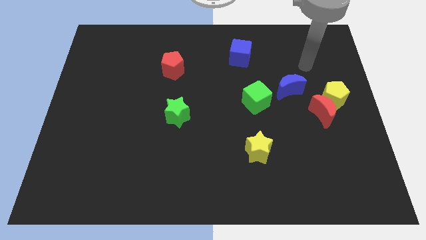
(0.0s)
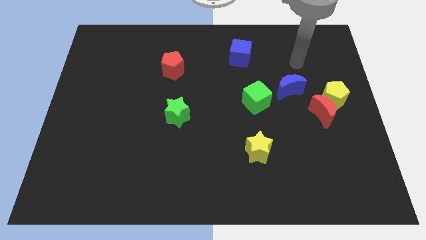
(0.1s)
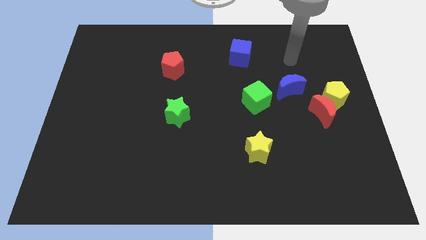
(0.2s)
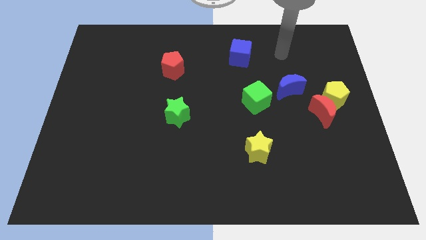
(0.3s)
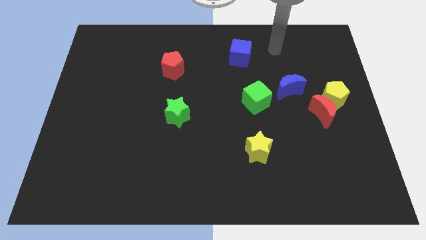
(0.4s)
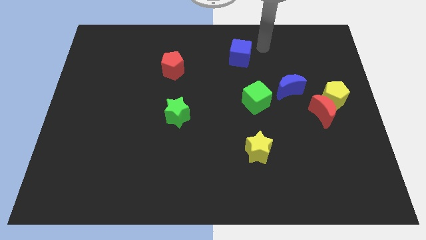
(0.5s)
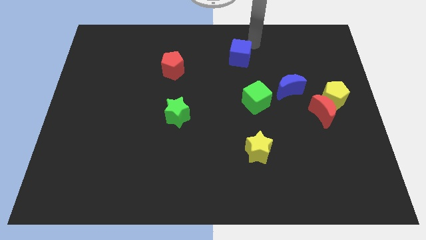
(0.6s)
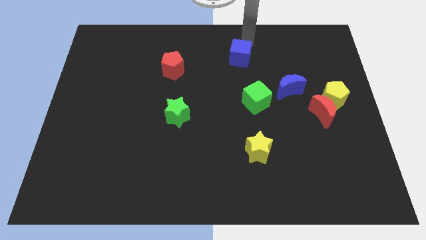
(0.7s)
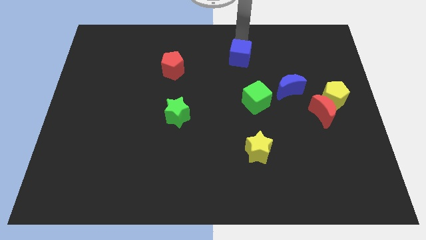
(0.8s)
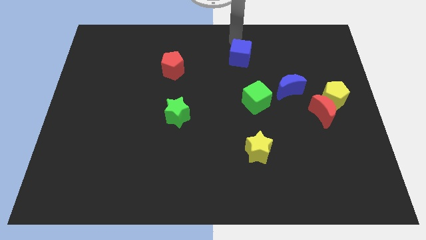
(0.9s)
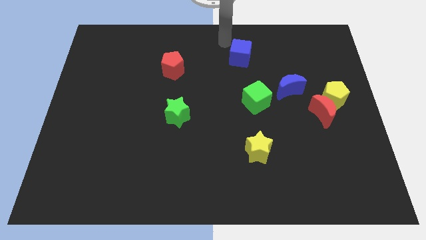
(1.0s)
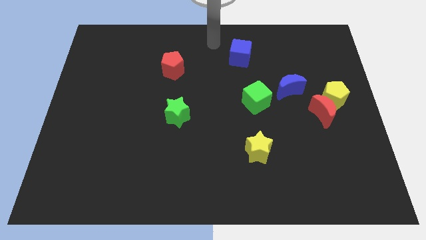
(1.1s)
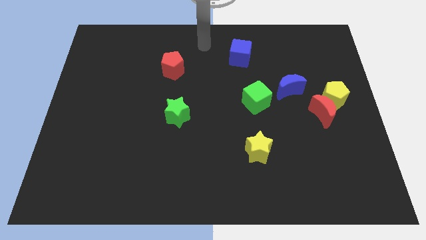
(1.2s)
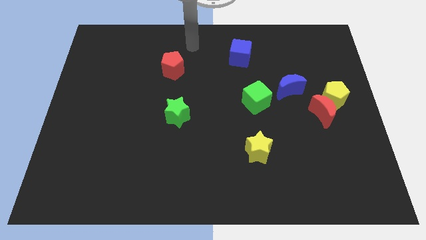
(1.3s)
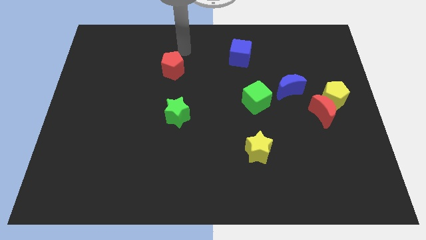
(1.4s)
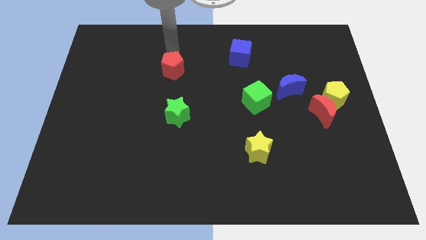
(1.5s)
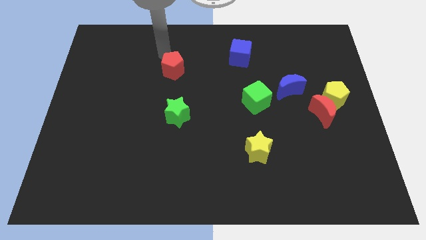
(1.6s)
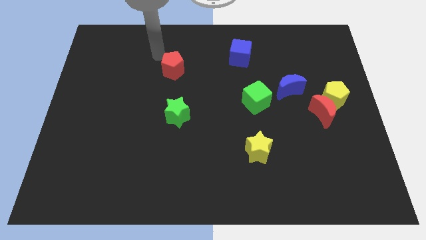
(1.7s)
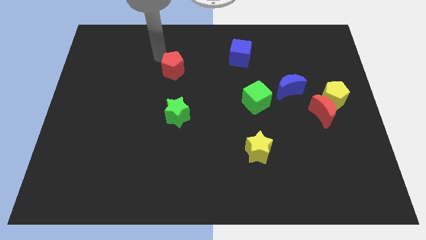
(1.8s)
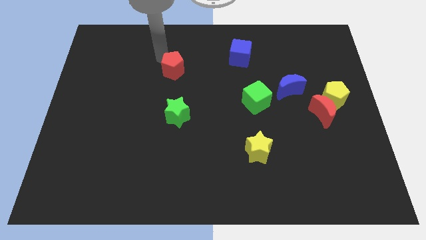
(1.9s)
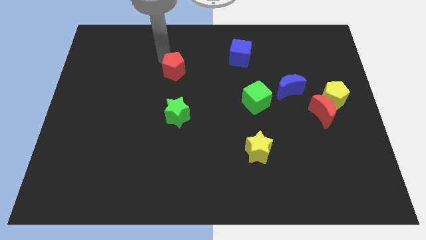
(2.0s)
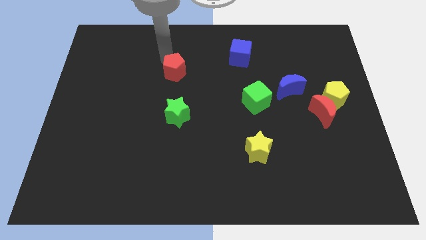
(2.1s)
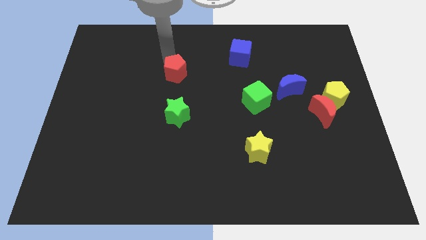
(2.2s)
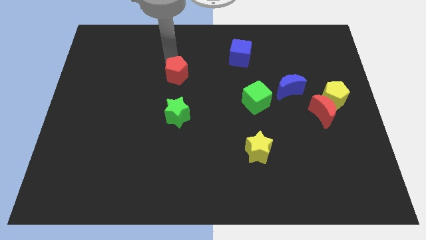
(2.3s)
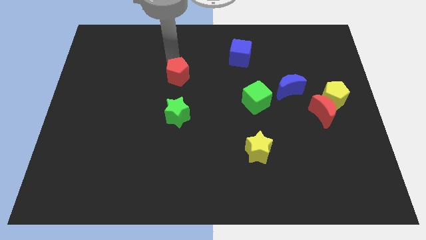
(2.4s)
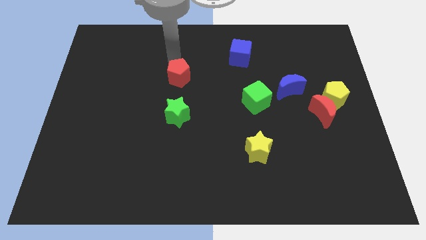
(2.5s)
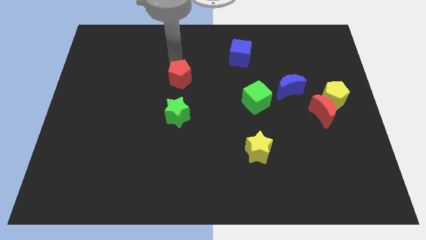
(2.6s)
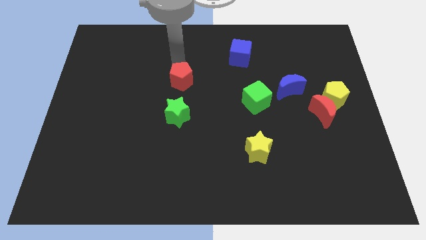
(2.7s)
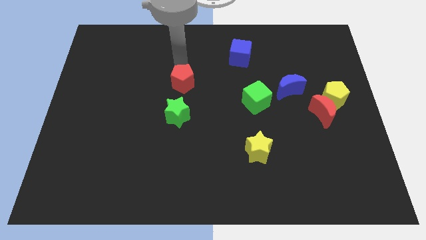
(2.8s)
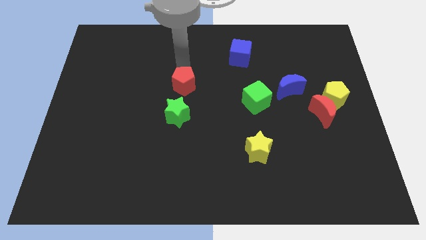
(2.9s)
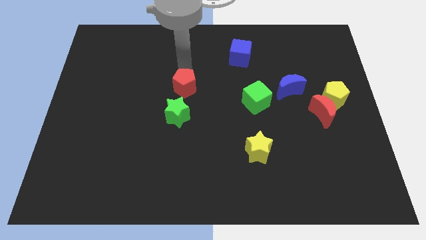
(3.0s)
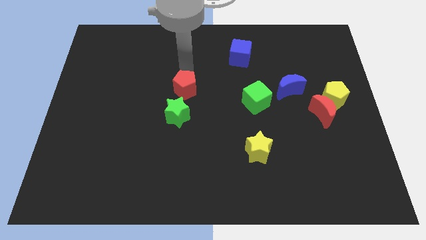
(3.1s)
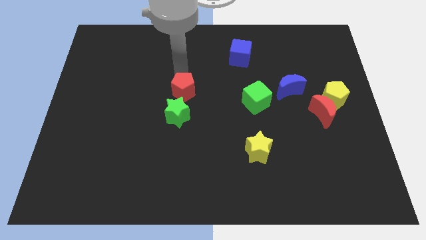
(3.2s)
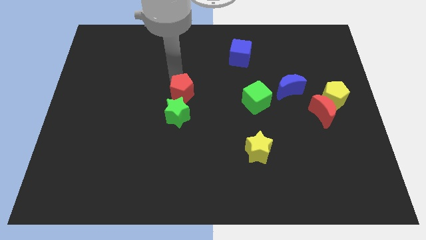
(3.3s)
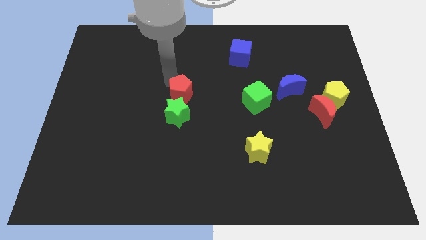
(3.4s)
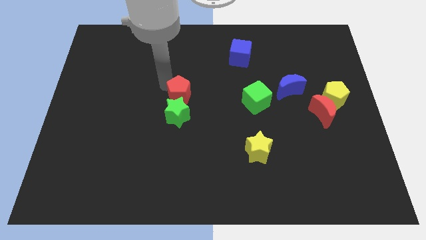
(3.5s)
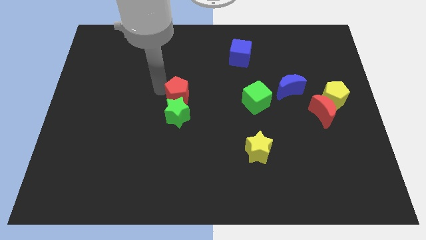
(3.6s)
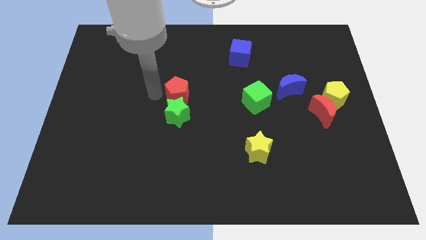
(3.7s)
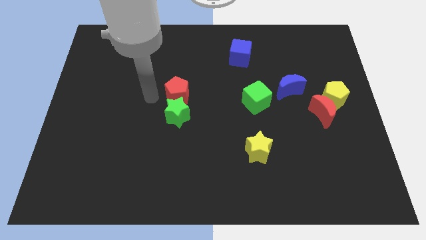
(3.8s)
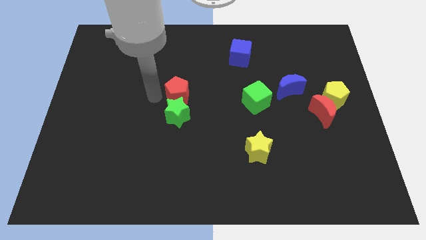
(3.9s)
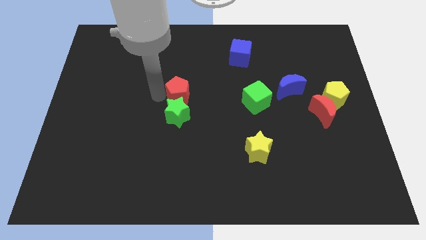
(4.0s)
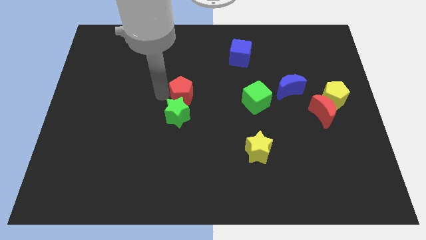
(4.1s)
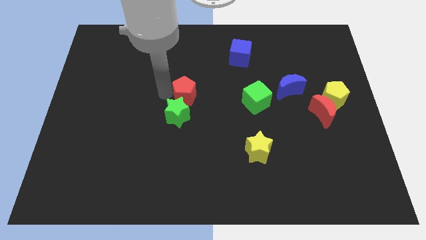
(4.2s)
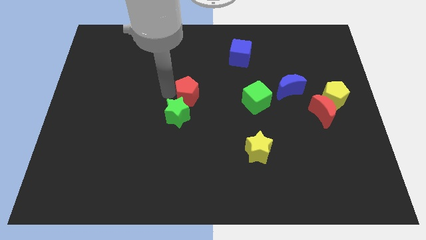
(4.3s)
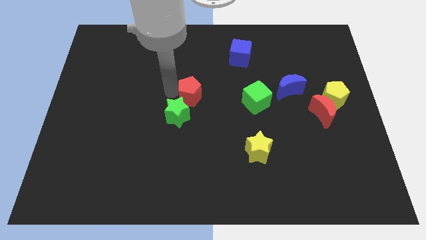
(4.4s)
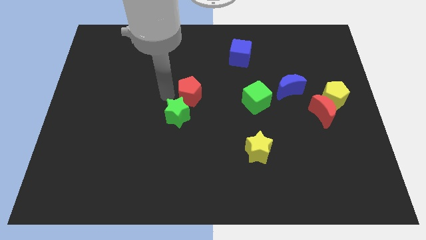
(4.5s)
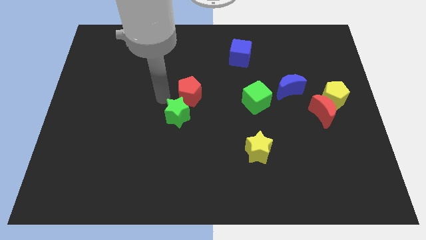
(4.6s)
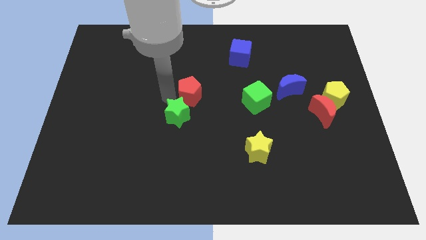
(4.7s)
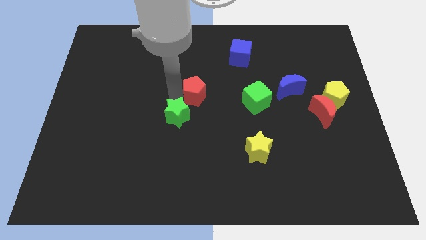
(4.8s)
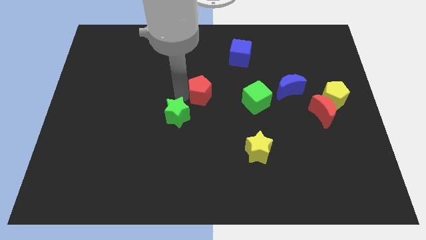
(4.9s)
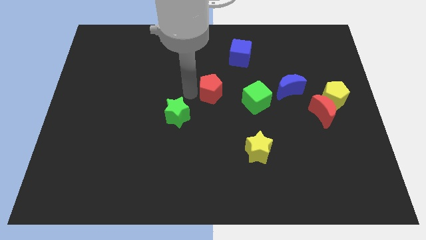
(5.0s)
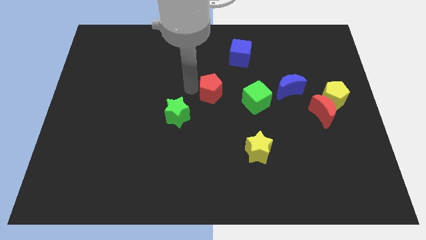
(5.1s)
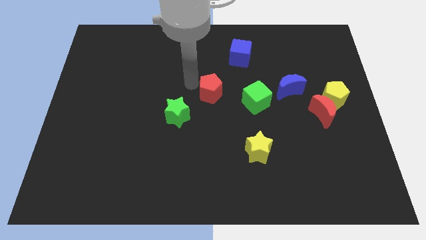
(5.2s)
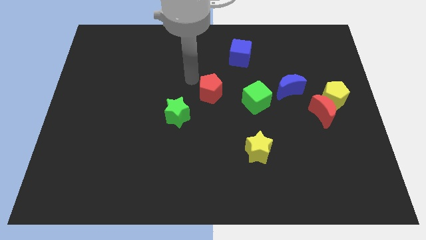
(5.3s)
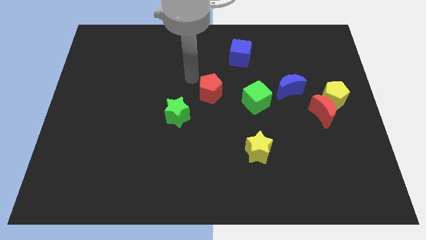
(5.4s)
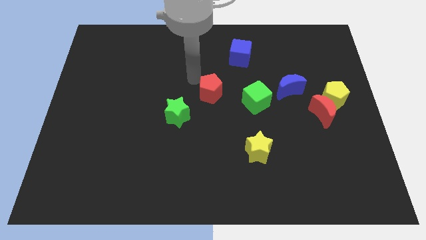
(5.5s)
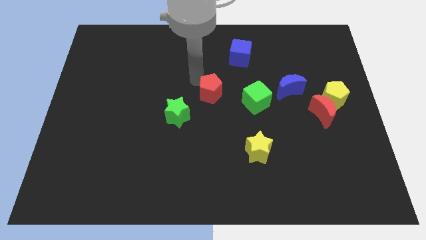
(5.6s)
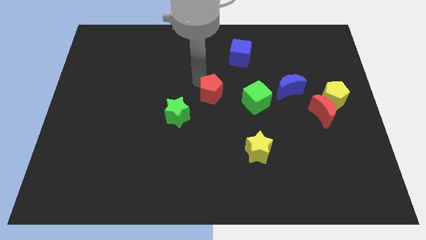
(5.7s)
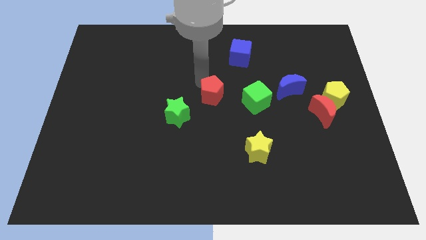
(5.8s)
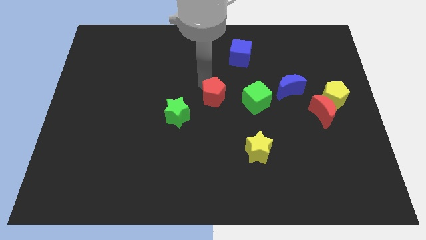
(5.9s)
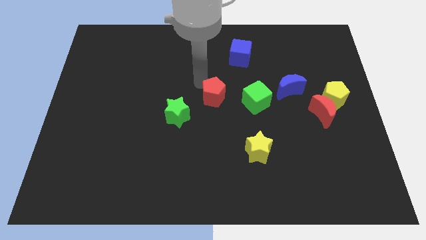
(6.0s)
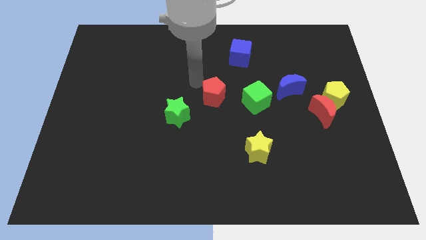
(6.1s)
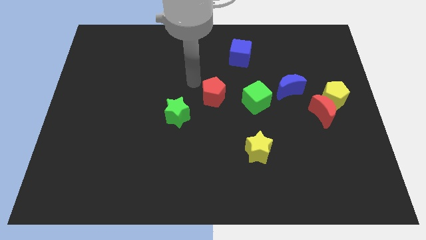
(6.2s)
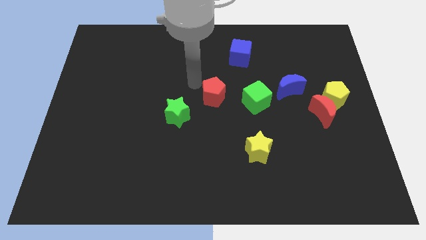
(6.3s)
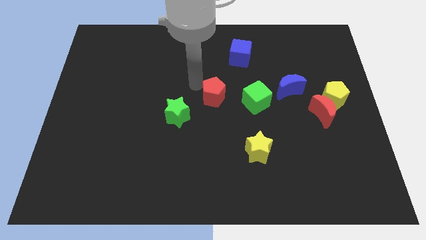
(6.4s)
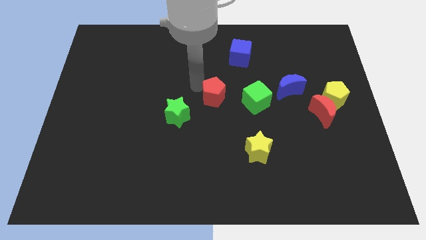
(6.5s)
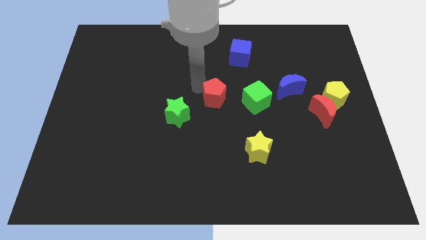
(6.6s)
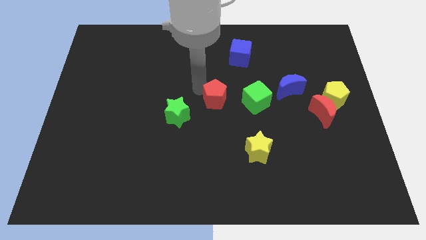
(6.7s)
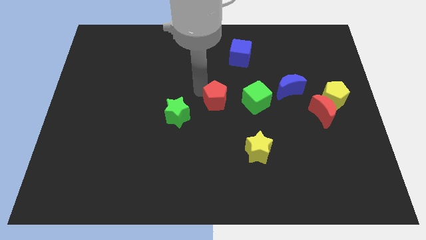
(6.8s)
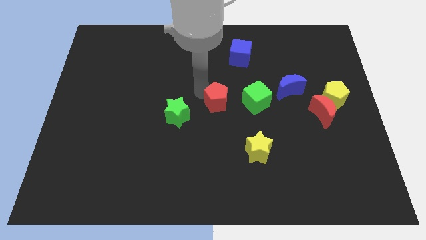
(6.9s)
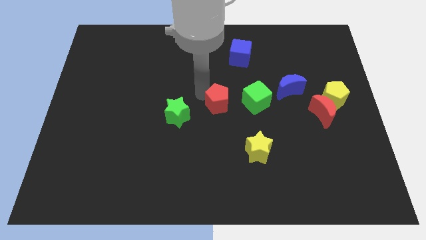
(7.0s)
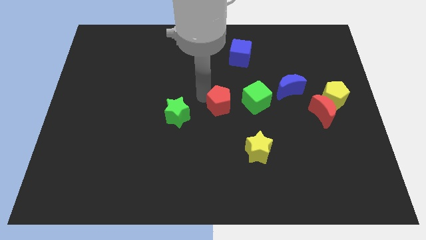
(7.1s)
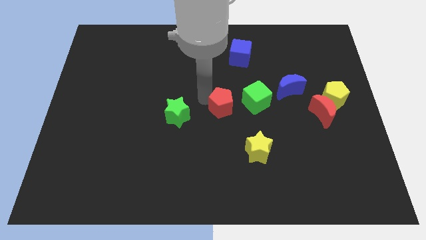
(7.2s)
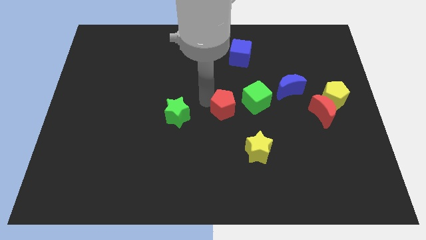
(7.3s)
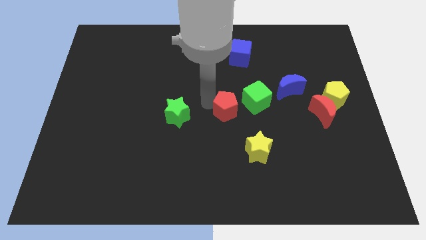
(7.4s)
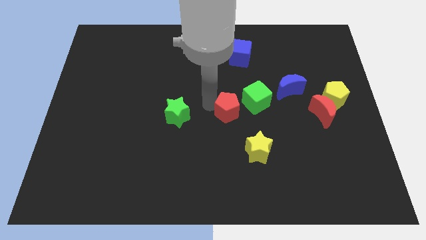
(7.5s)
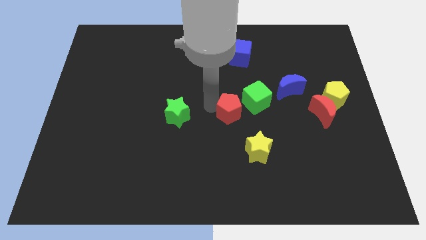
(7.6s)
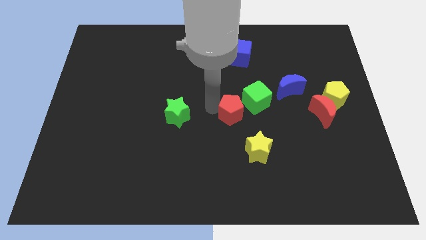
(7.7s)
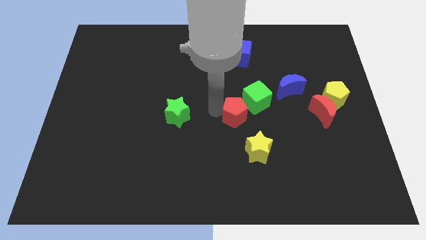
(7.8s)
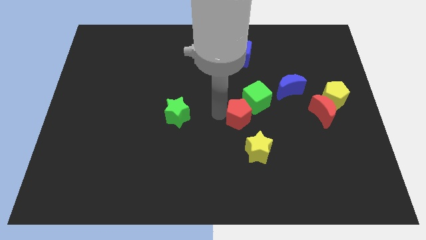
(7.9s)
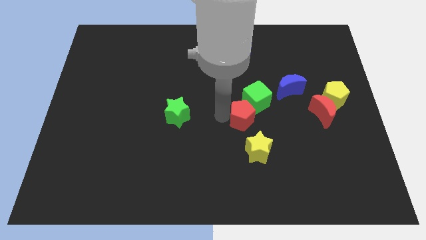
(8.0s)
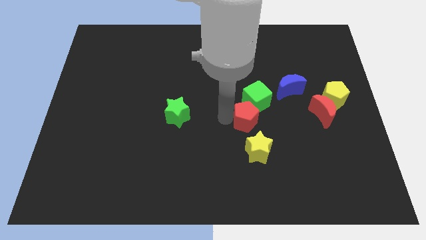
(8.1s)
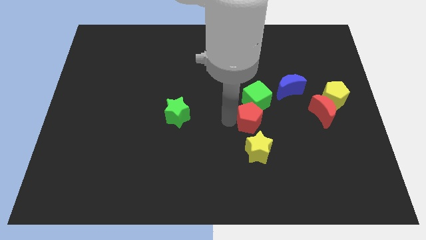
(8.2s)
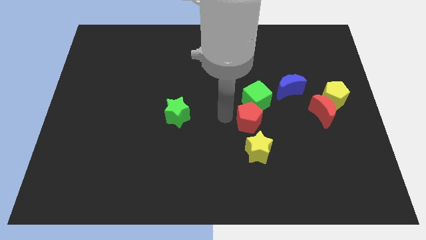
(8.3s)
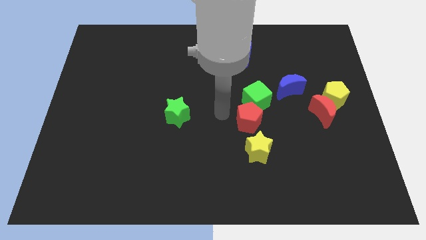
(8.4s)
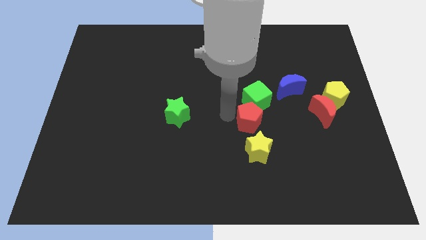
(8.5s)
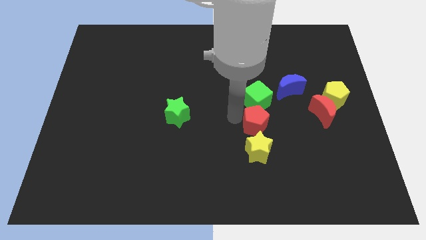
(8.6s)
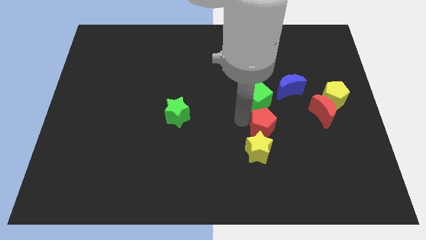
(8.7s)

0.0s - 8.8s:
slide the red pentagon to the top right of the yellow star

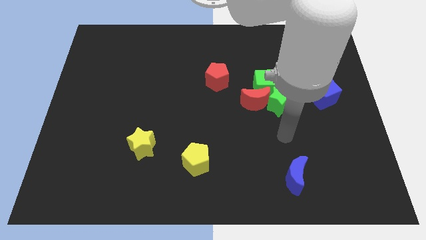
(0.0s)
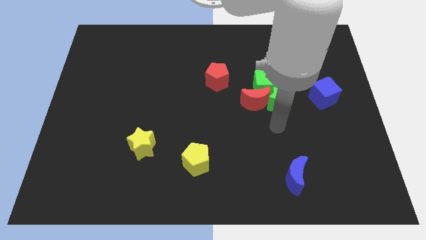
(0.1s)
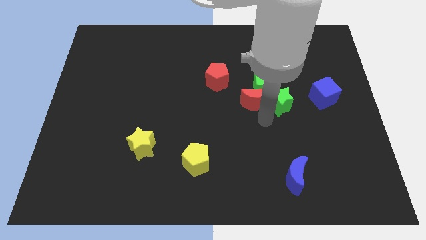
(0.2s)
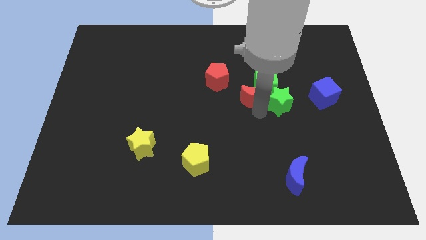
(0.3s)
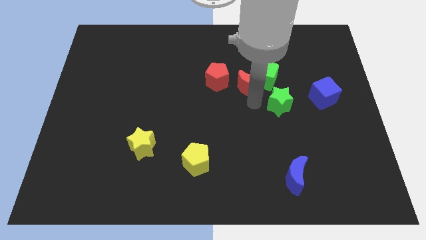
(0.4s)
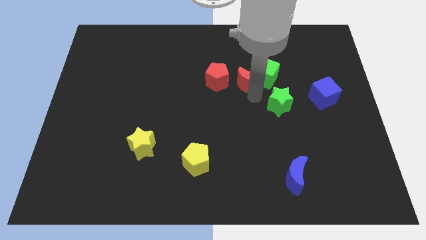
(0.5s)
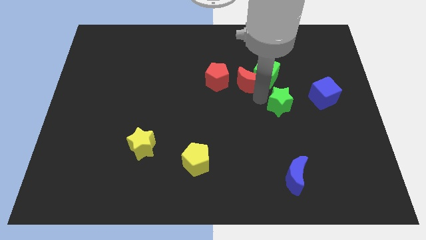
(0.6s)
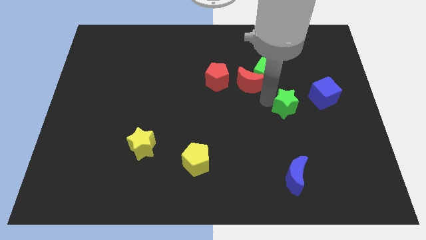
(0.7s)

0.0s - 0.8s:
move the green star to the bottom left side of the blue cube
